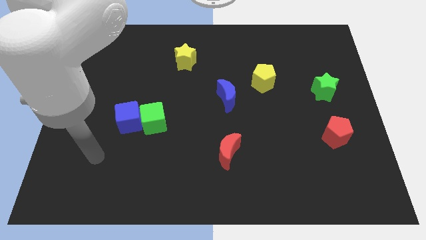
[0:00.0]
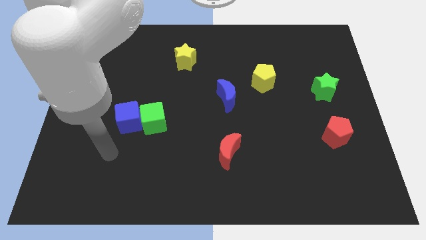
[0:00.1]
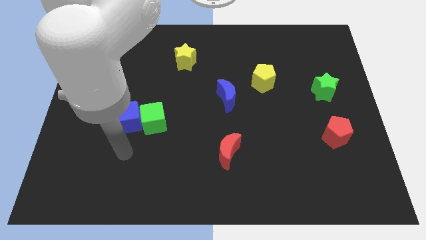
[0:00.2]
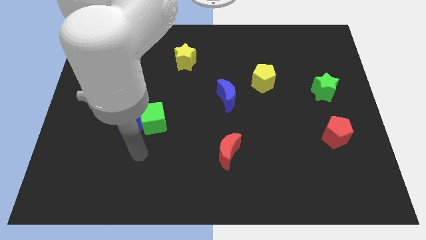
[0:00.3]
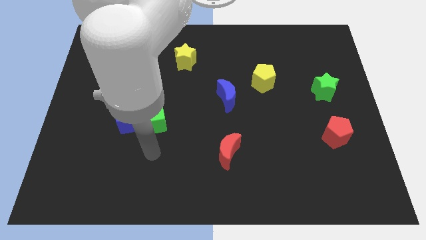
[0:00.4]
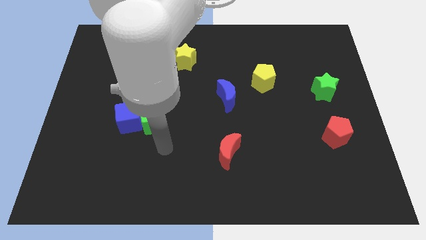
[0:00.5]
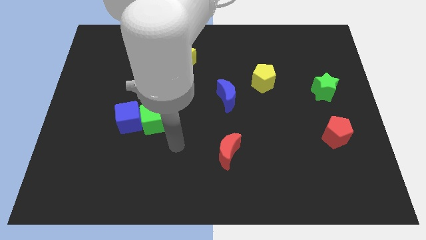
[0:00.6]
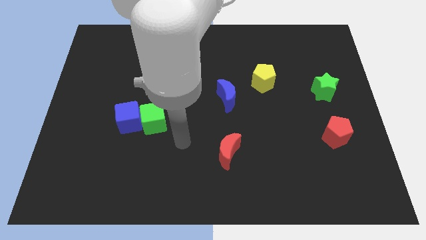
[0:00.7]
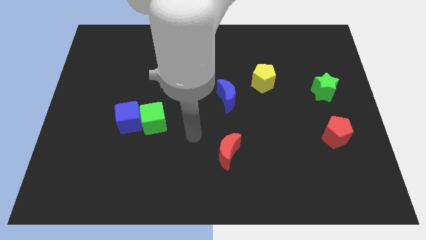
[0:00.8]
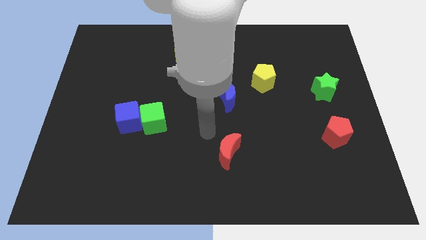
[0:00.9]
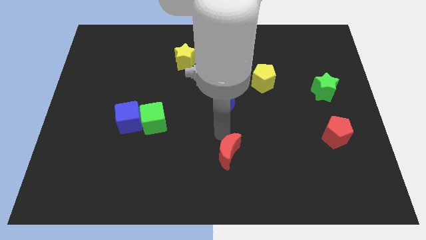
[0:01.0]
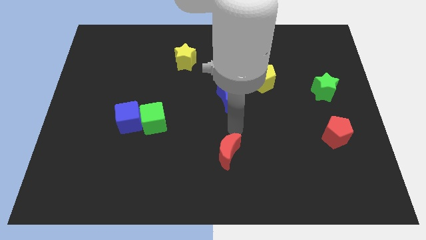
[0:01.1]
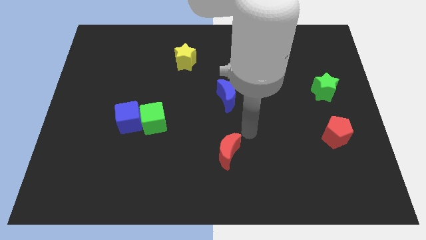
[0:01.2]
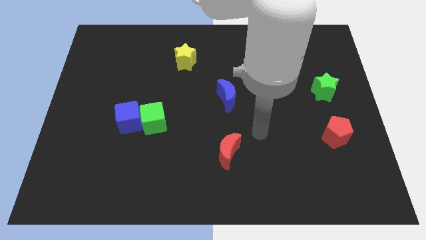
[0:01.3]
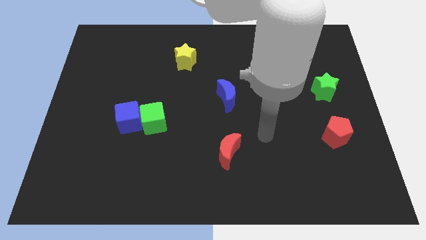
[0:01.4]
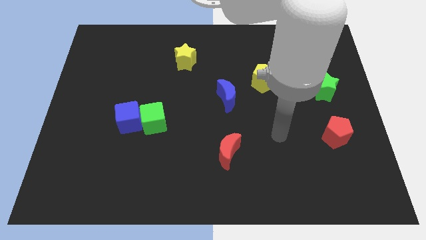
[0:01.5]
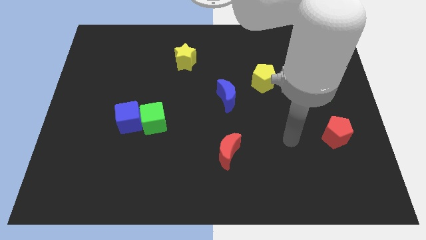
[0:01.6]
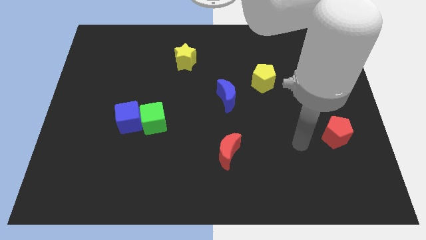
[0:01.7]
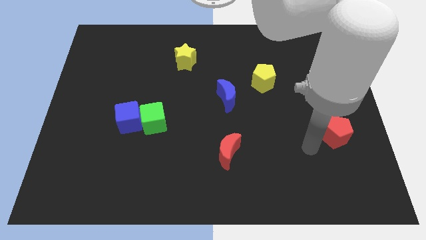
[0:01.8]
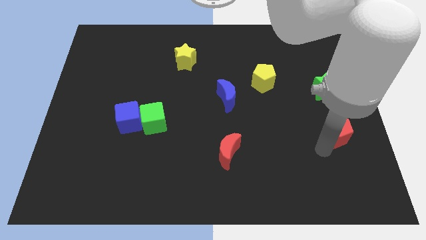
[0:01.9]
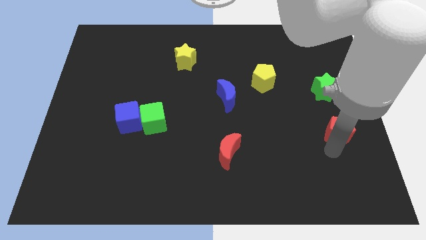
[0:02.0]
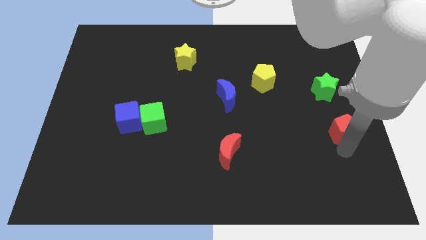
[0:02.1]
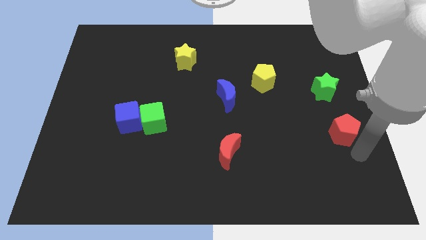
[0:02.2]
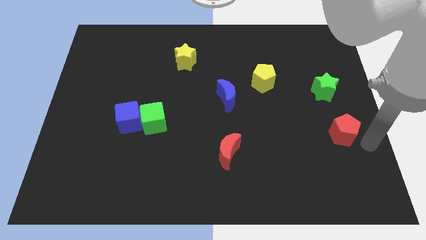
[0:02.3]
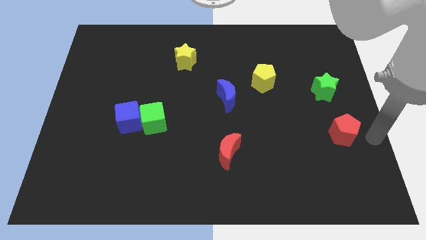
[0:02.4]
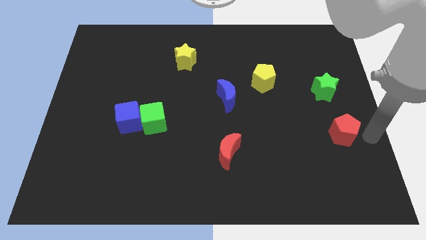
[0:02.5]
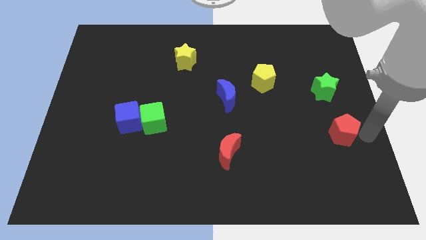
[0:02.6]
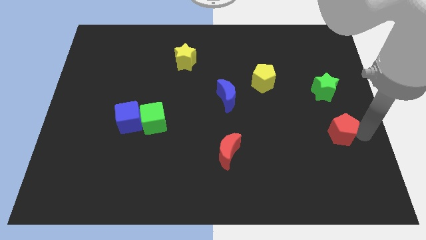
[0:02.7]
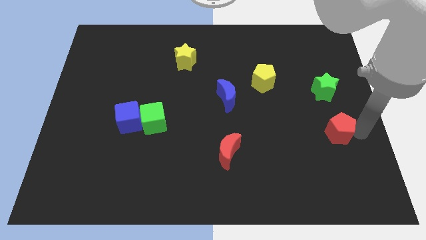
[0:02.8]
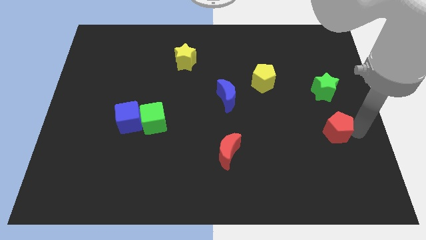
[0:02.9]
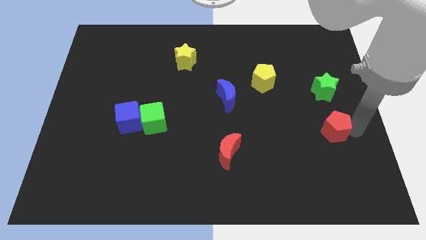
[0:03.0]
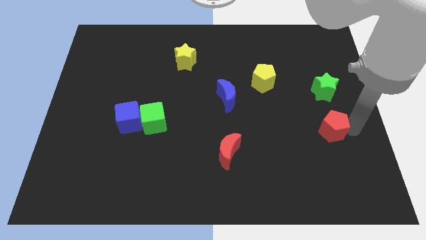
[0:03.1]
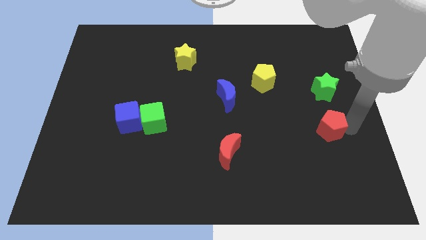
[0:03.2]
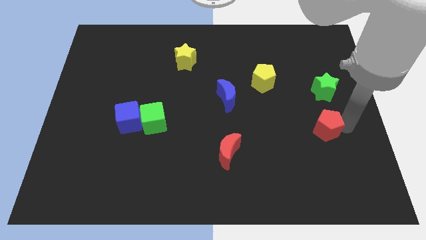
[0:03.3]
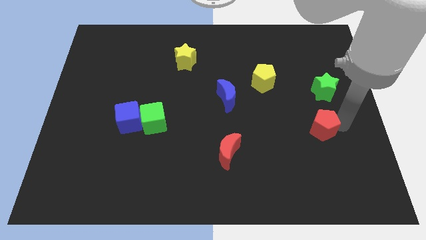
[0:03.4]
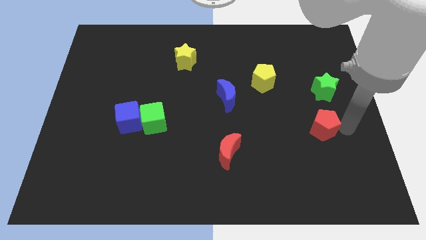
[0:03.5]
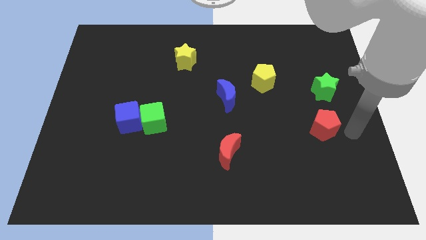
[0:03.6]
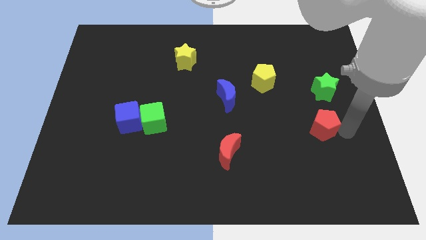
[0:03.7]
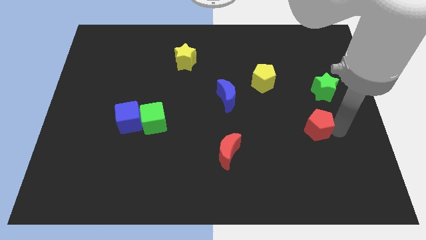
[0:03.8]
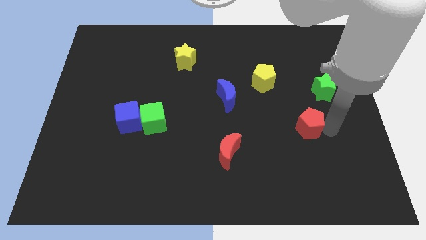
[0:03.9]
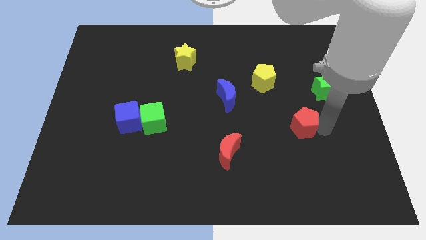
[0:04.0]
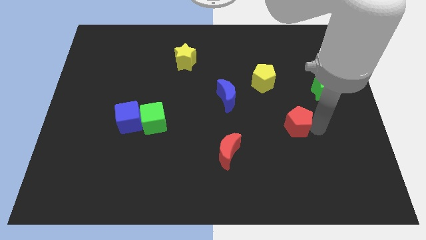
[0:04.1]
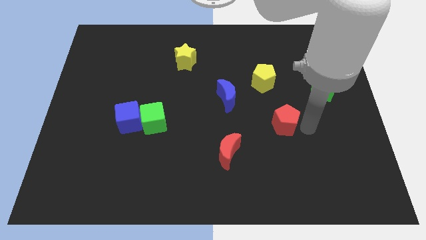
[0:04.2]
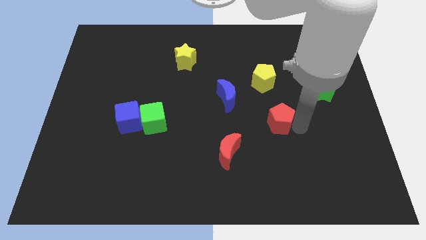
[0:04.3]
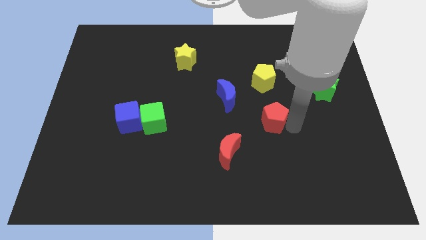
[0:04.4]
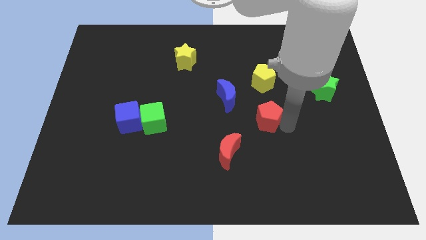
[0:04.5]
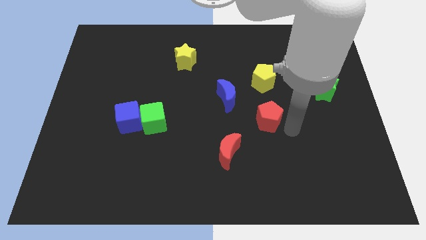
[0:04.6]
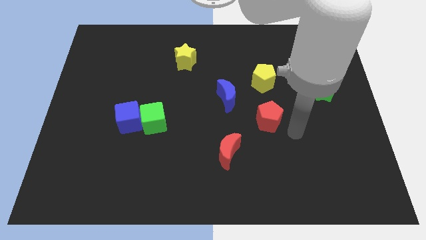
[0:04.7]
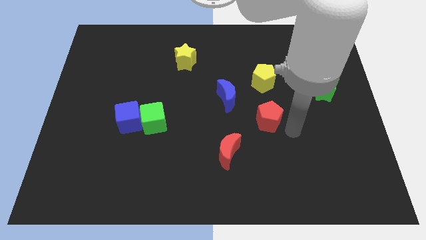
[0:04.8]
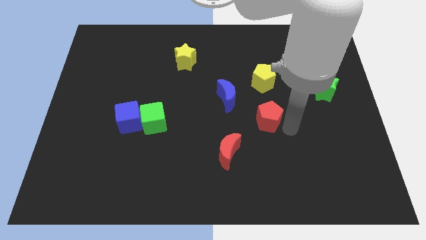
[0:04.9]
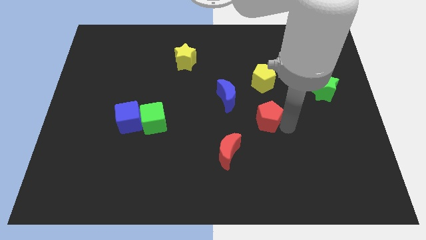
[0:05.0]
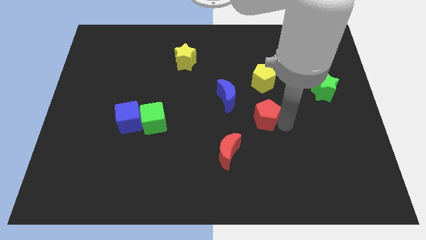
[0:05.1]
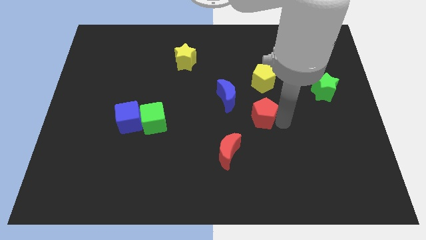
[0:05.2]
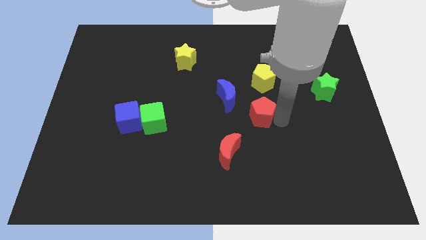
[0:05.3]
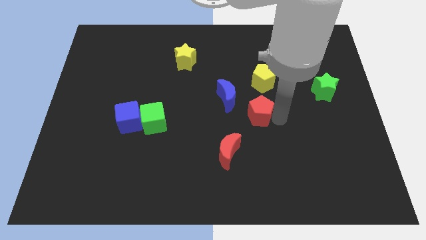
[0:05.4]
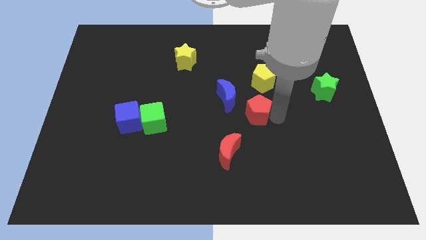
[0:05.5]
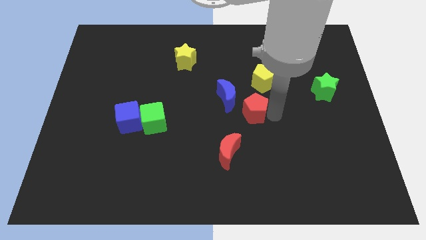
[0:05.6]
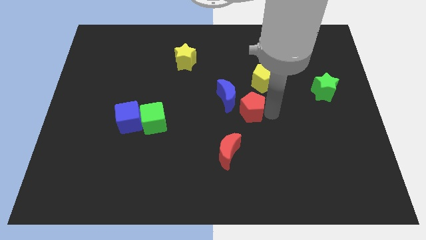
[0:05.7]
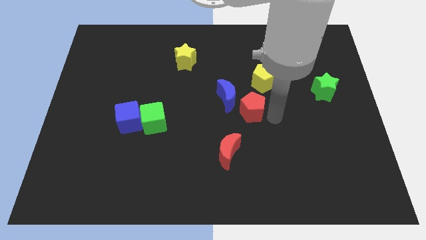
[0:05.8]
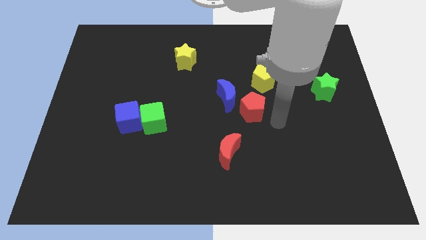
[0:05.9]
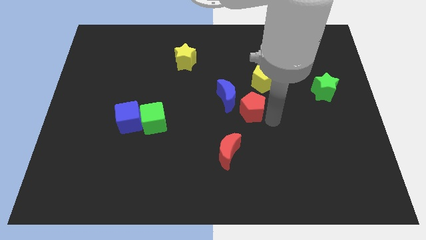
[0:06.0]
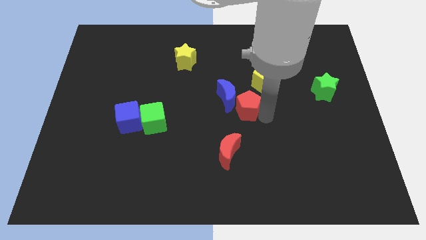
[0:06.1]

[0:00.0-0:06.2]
move the red pentagon close to the blue moon

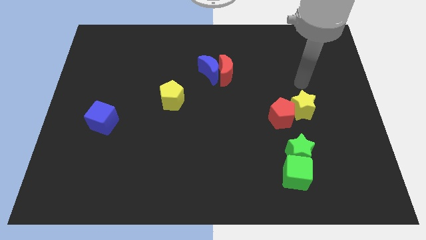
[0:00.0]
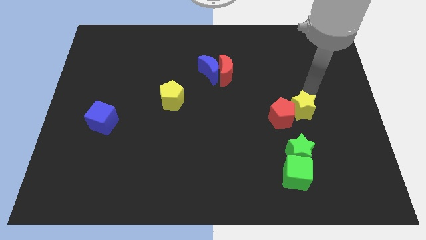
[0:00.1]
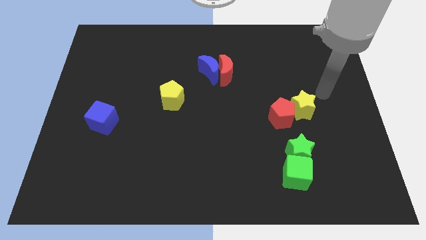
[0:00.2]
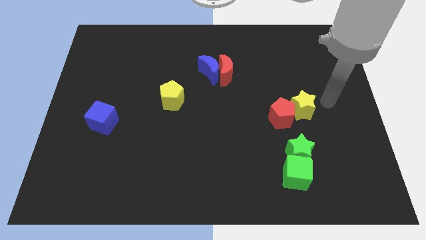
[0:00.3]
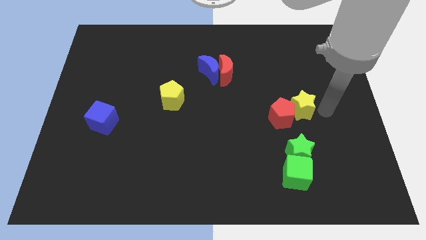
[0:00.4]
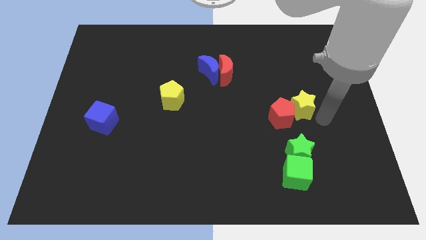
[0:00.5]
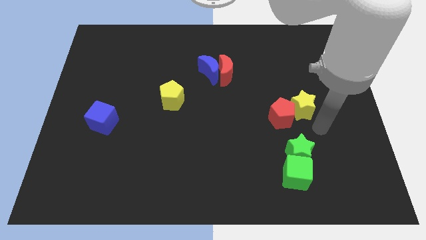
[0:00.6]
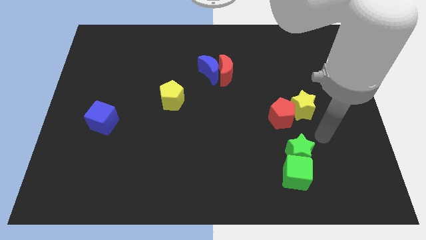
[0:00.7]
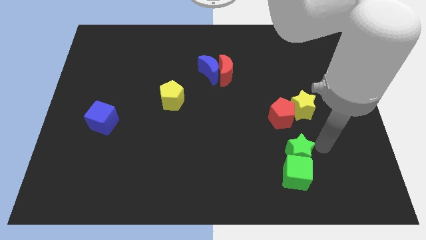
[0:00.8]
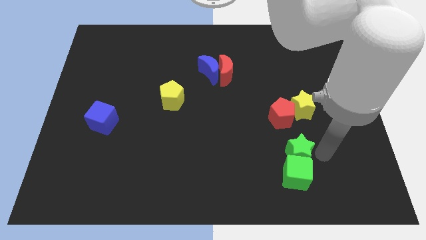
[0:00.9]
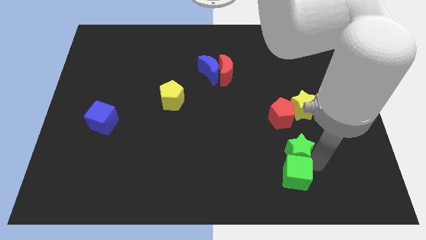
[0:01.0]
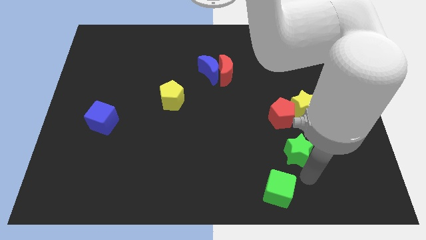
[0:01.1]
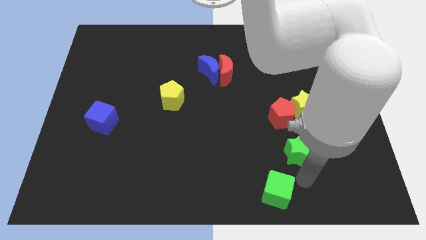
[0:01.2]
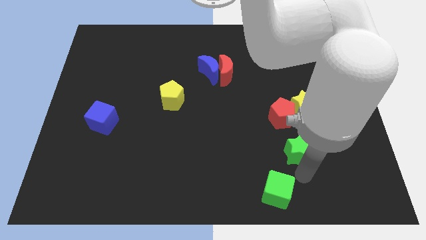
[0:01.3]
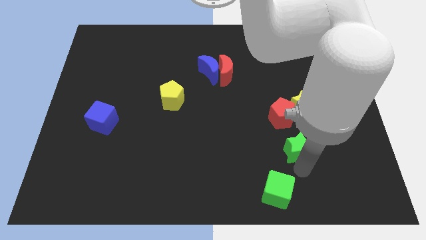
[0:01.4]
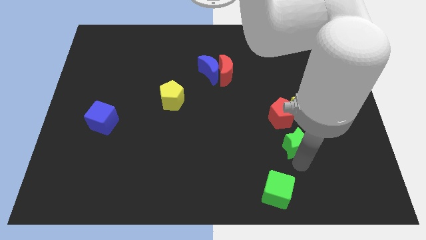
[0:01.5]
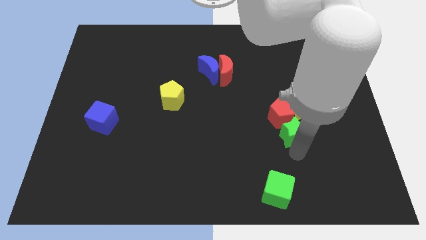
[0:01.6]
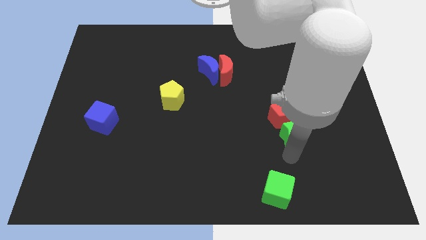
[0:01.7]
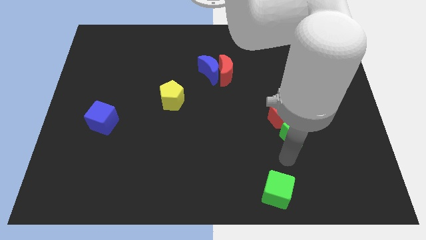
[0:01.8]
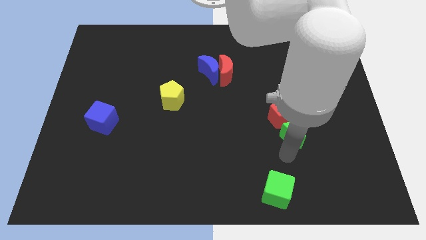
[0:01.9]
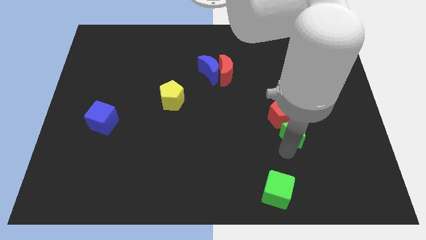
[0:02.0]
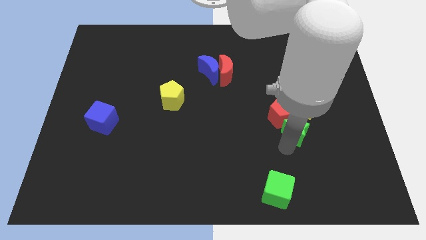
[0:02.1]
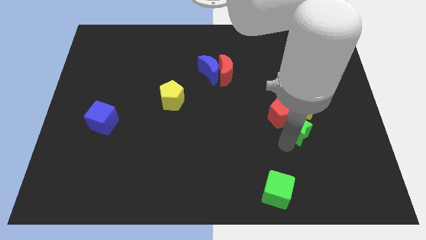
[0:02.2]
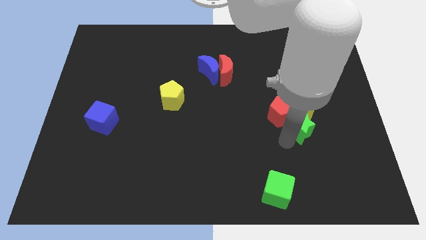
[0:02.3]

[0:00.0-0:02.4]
move the green star next to the yellow star
